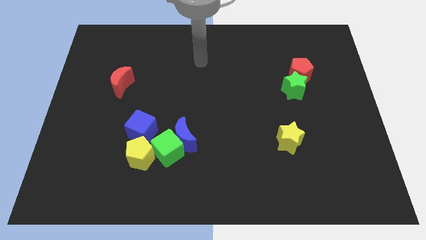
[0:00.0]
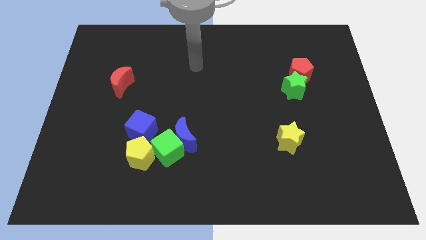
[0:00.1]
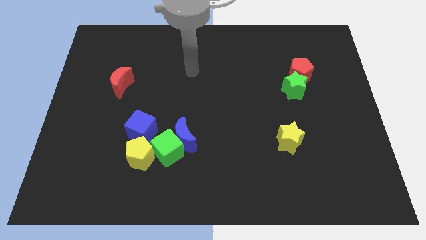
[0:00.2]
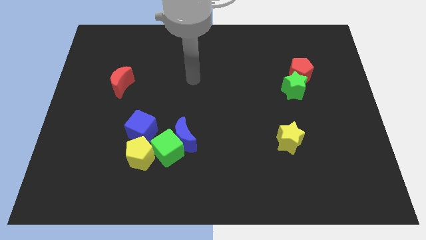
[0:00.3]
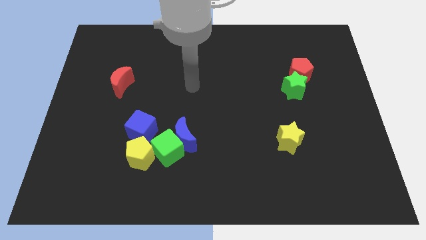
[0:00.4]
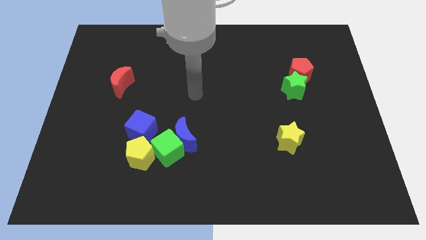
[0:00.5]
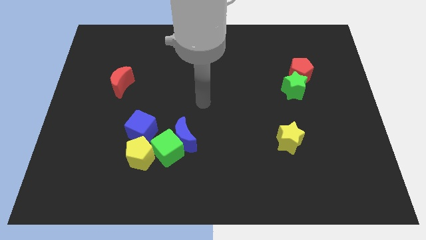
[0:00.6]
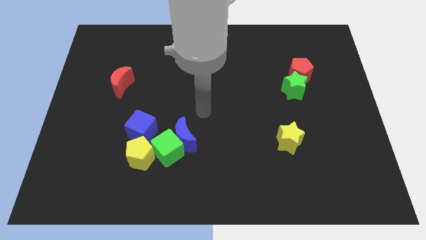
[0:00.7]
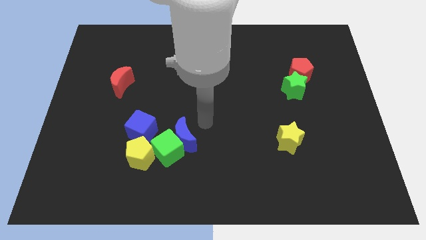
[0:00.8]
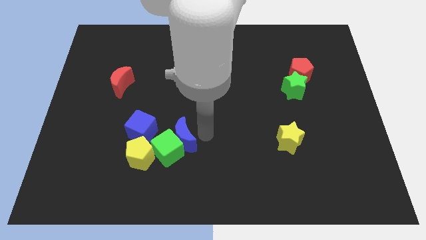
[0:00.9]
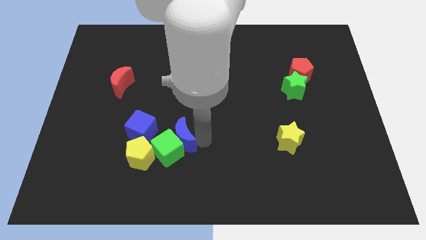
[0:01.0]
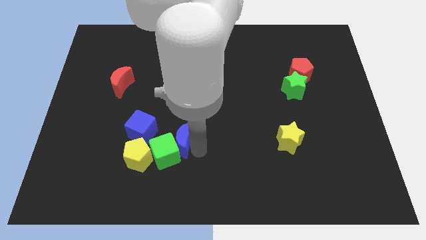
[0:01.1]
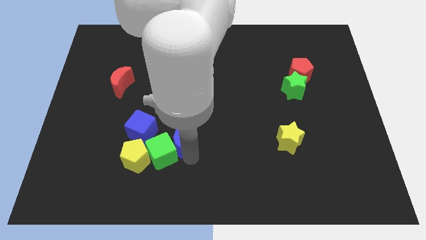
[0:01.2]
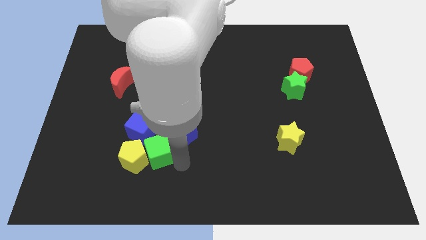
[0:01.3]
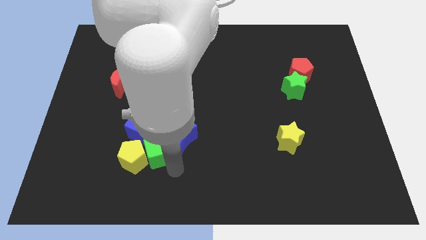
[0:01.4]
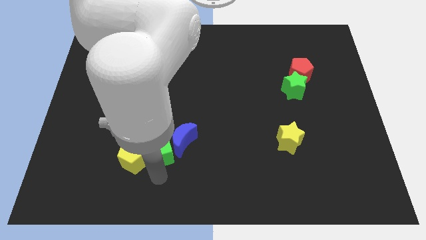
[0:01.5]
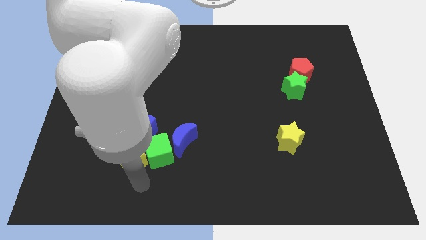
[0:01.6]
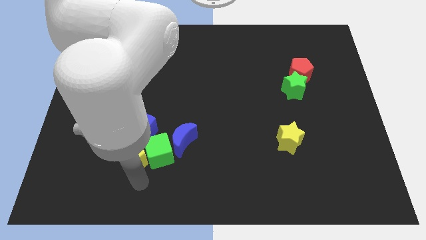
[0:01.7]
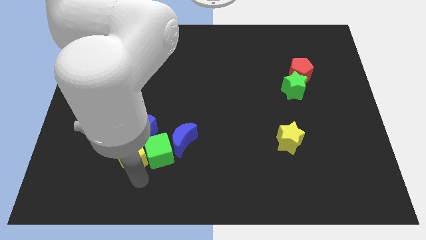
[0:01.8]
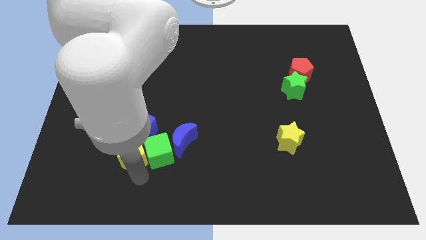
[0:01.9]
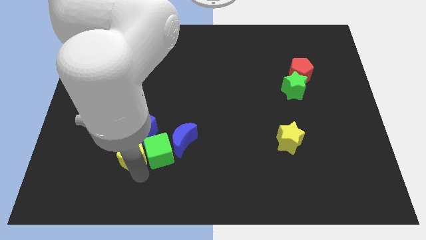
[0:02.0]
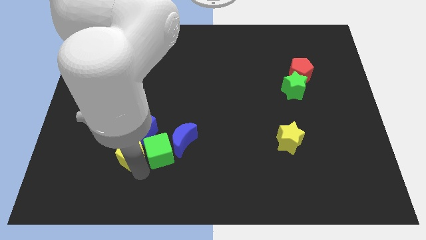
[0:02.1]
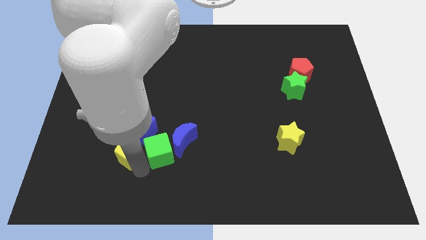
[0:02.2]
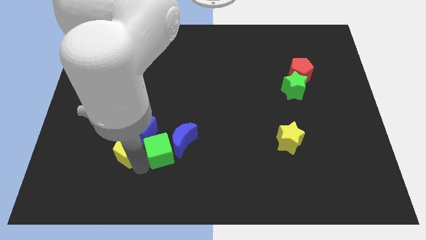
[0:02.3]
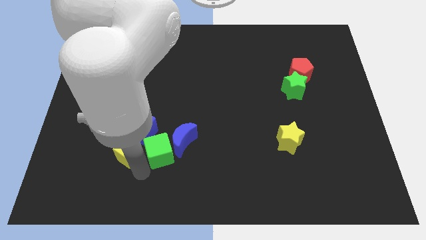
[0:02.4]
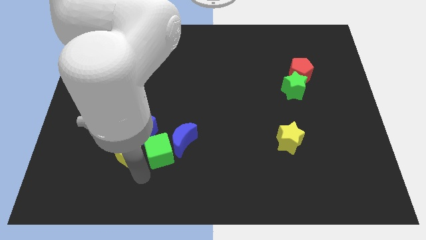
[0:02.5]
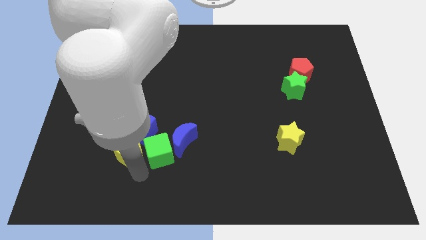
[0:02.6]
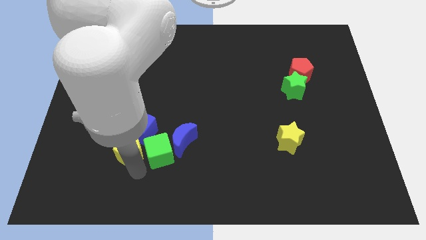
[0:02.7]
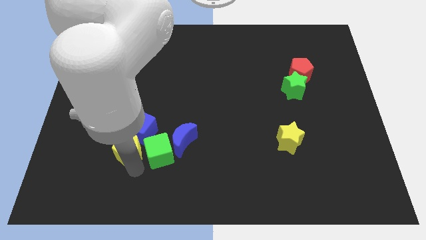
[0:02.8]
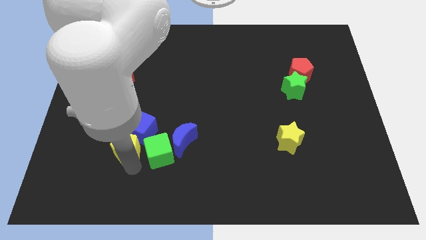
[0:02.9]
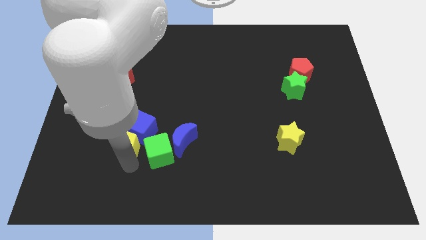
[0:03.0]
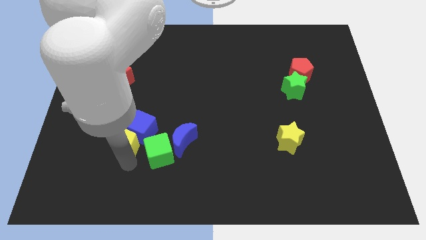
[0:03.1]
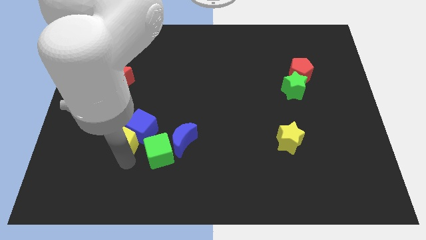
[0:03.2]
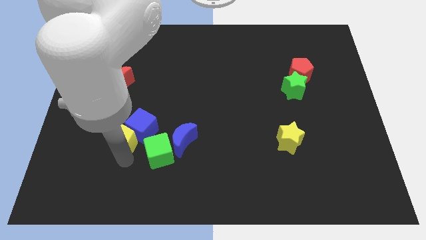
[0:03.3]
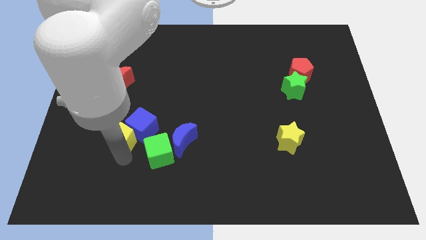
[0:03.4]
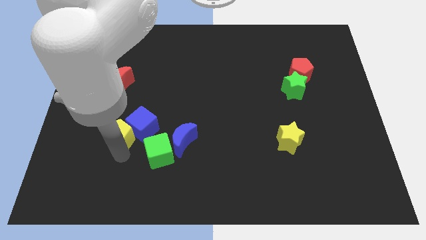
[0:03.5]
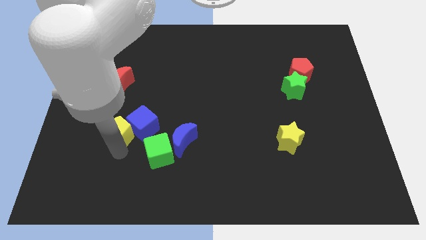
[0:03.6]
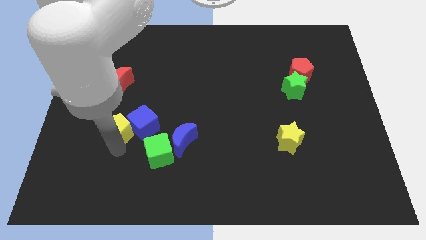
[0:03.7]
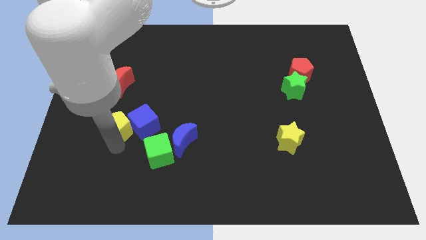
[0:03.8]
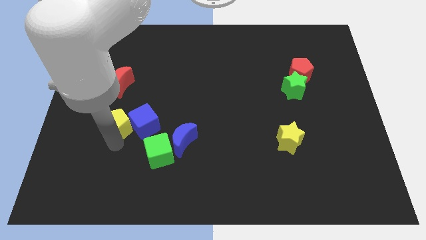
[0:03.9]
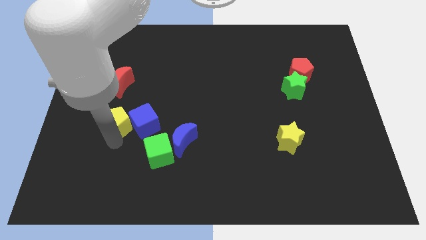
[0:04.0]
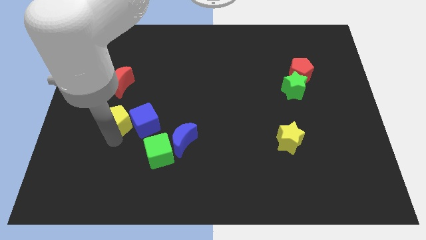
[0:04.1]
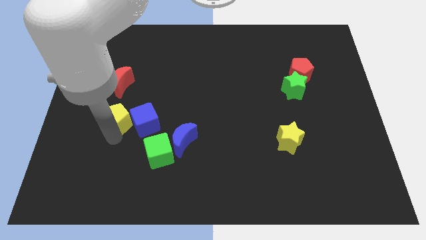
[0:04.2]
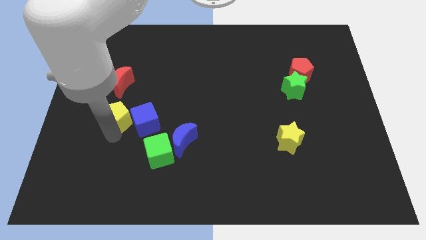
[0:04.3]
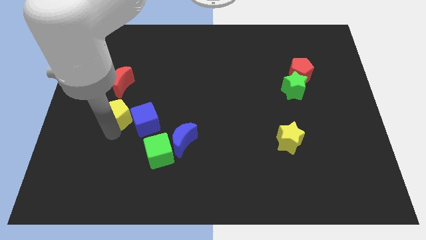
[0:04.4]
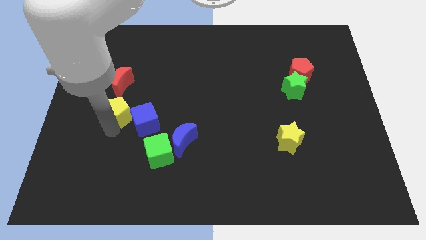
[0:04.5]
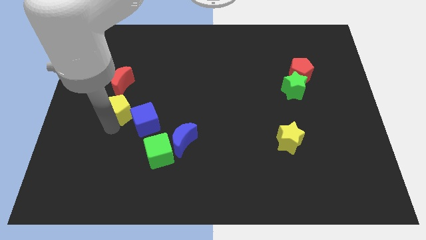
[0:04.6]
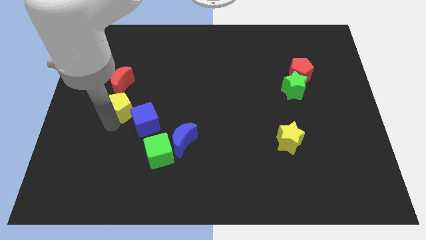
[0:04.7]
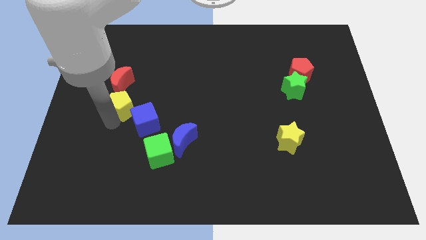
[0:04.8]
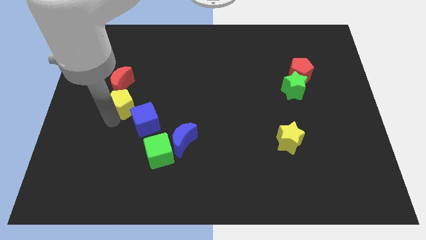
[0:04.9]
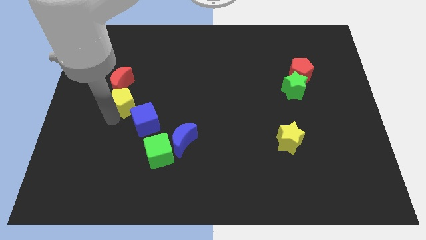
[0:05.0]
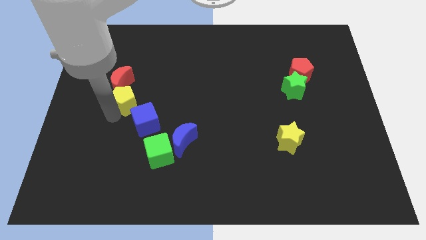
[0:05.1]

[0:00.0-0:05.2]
slide the yellow pentagon close to the red moon

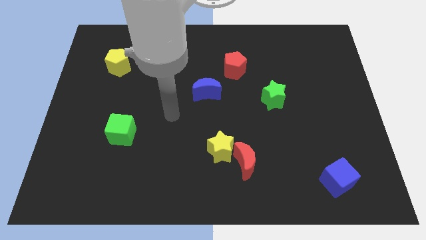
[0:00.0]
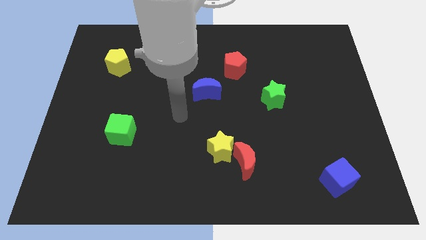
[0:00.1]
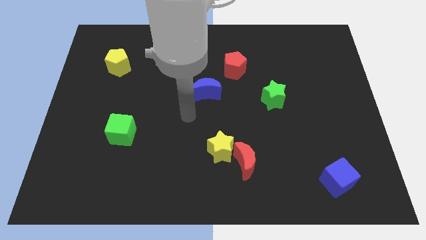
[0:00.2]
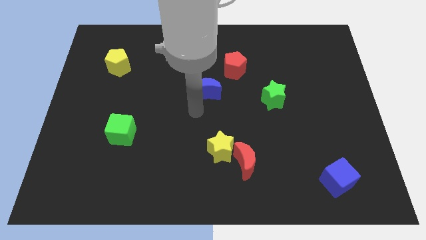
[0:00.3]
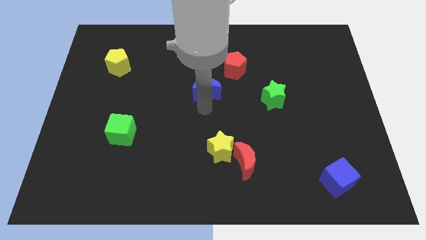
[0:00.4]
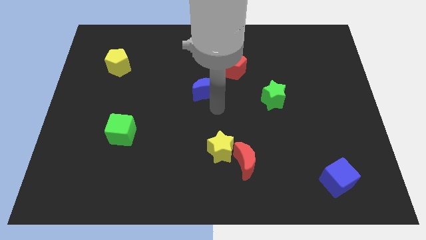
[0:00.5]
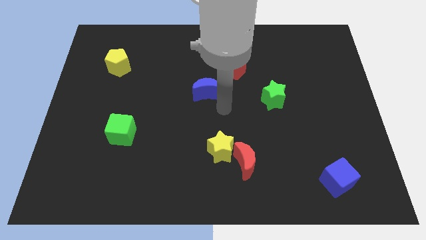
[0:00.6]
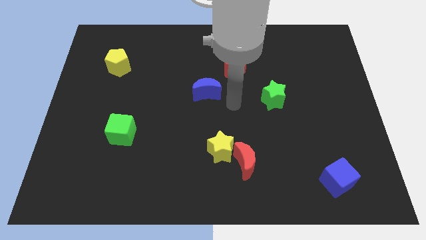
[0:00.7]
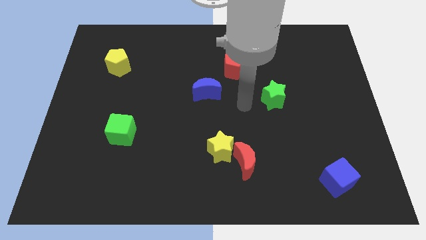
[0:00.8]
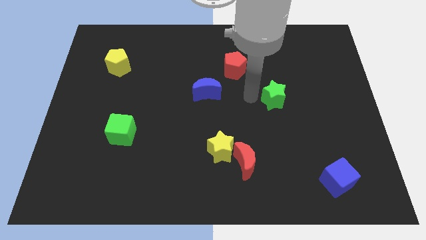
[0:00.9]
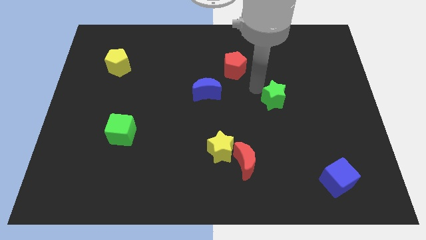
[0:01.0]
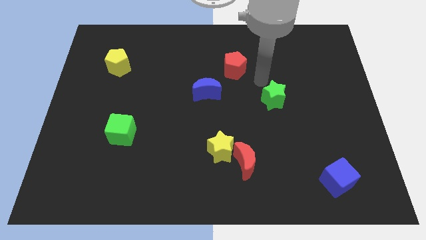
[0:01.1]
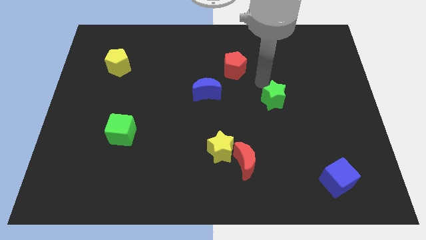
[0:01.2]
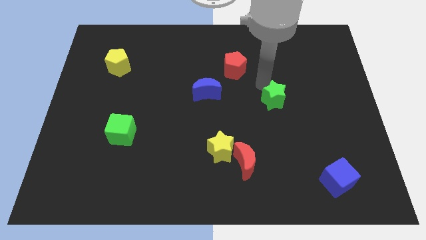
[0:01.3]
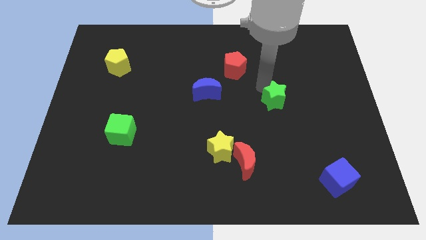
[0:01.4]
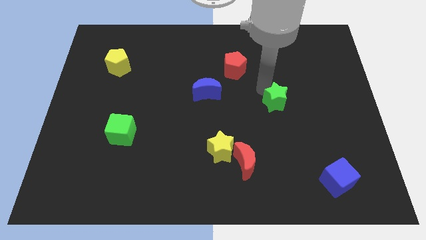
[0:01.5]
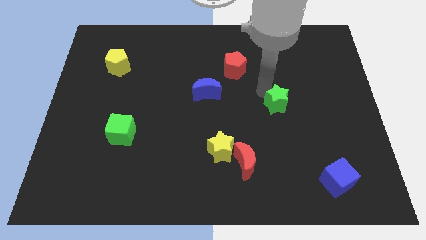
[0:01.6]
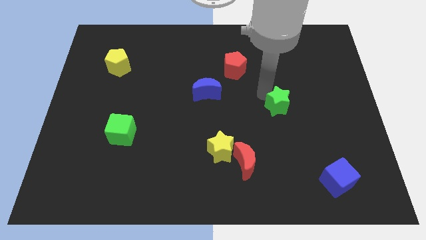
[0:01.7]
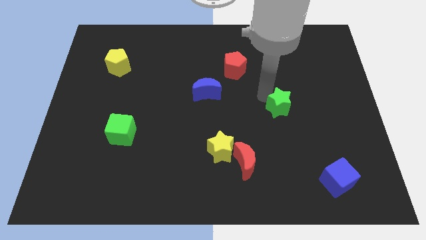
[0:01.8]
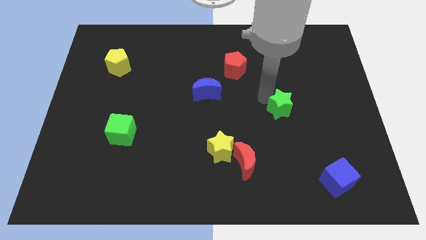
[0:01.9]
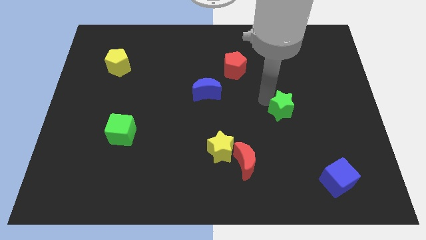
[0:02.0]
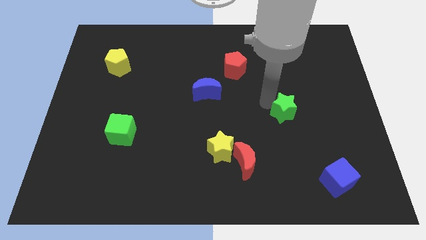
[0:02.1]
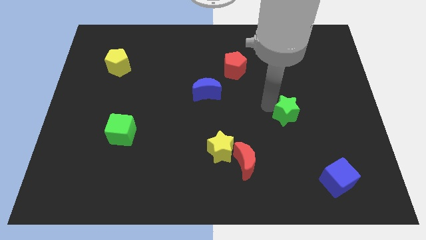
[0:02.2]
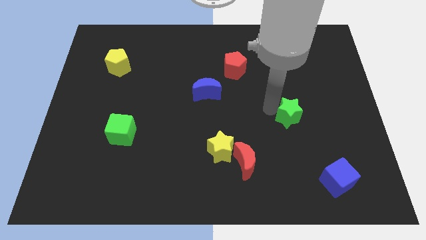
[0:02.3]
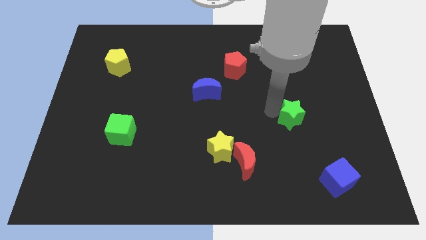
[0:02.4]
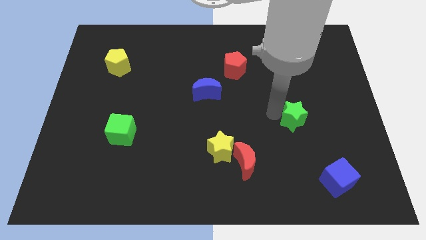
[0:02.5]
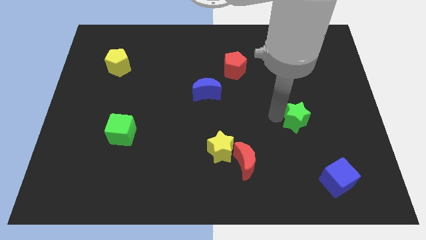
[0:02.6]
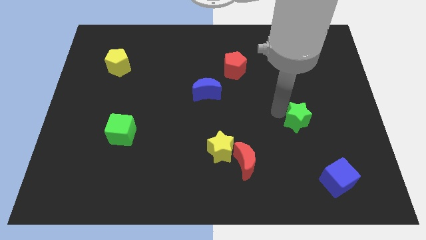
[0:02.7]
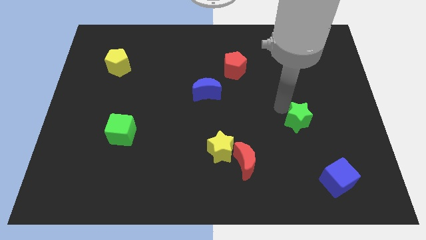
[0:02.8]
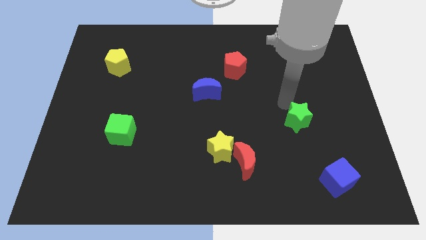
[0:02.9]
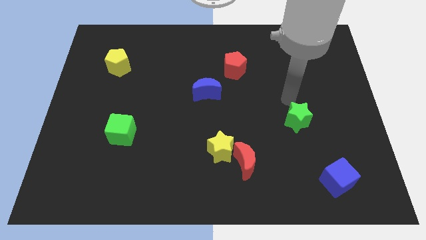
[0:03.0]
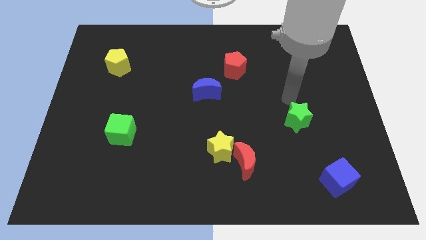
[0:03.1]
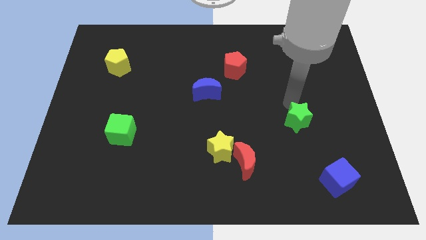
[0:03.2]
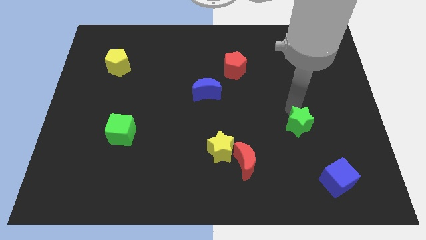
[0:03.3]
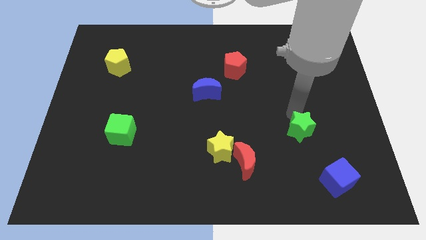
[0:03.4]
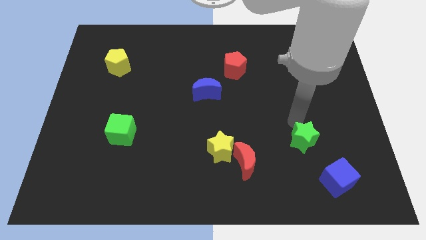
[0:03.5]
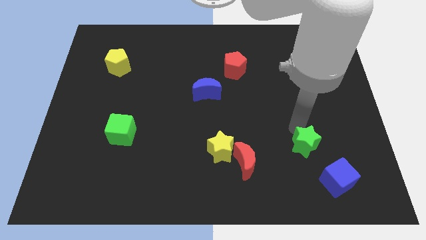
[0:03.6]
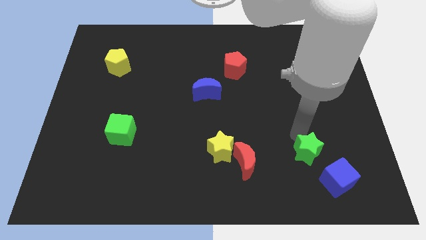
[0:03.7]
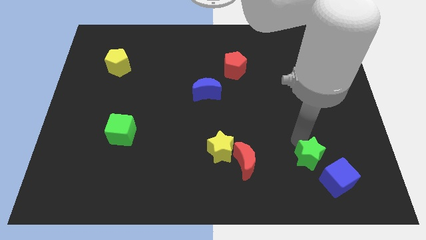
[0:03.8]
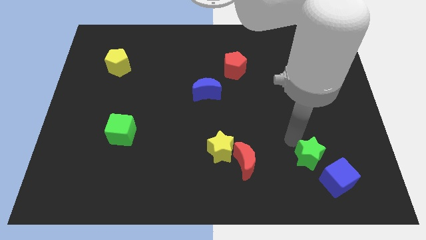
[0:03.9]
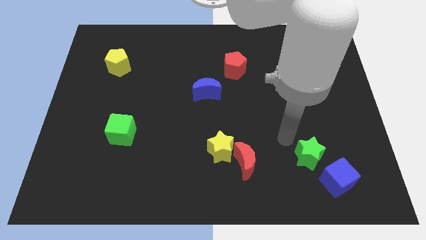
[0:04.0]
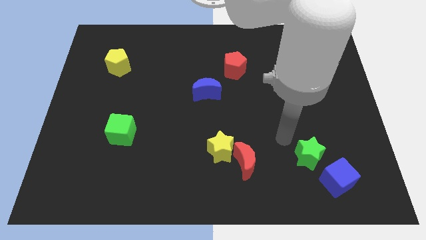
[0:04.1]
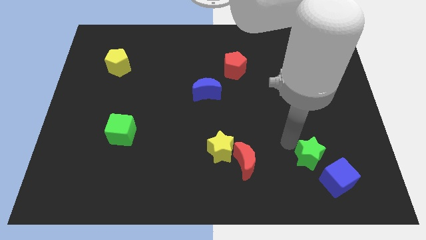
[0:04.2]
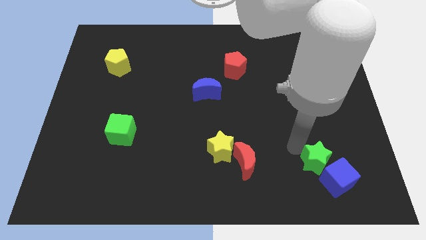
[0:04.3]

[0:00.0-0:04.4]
slide the green star towards the blue cube
